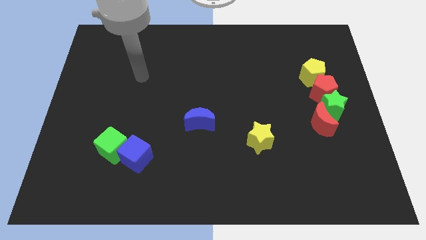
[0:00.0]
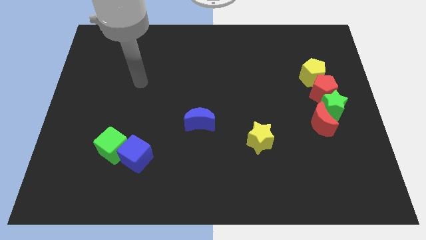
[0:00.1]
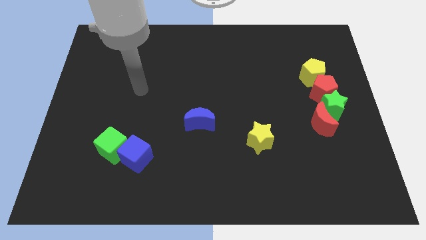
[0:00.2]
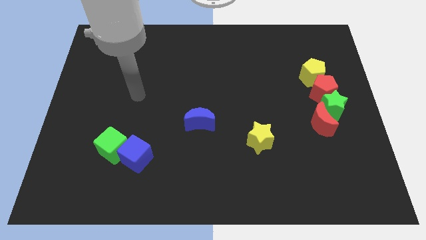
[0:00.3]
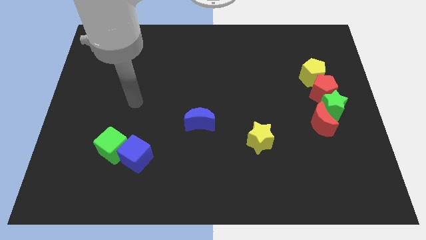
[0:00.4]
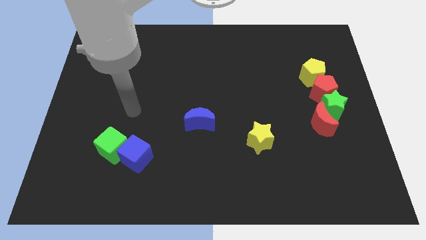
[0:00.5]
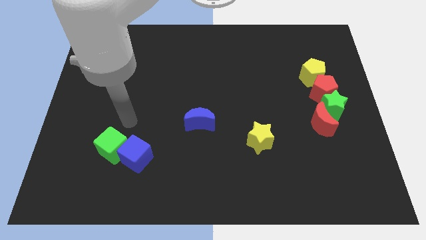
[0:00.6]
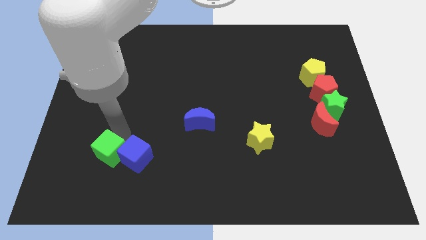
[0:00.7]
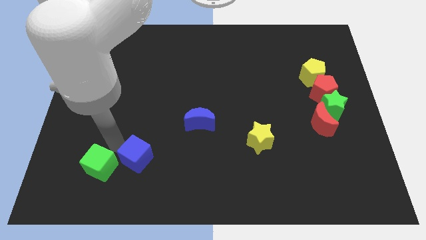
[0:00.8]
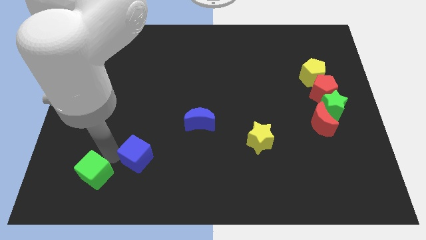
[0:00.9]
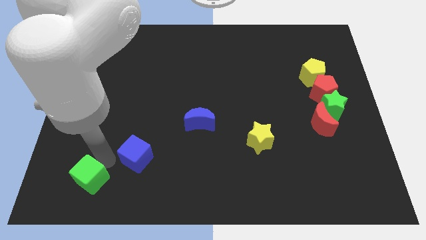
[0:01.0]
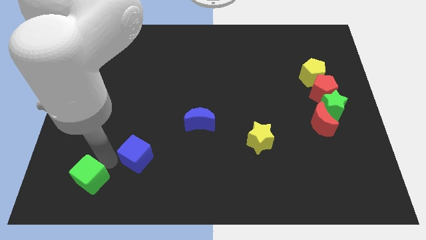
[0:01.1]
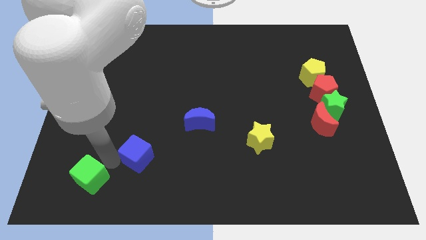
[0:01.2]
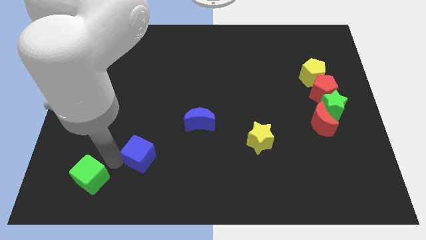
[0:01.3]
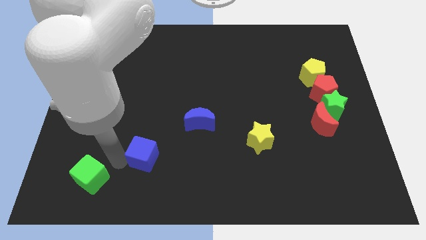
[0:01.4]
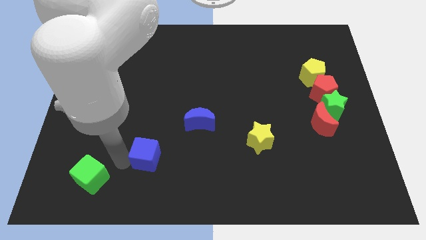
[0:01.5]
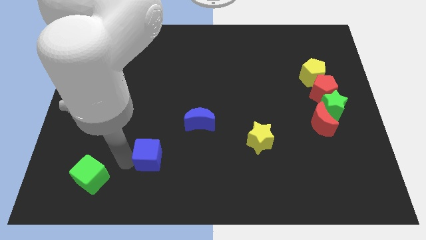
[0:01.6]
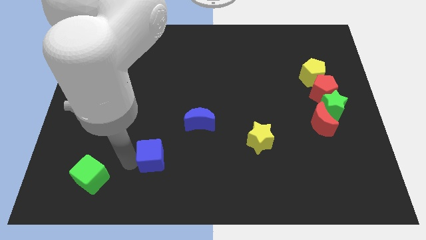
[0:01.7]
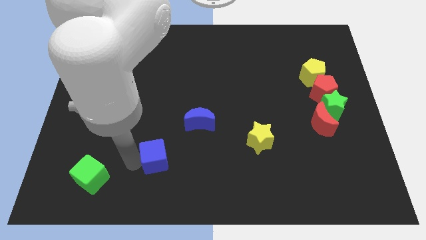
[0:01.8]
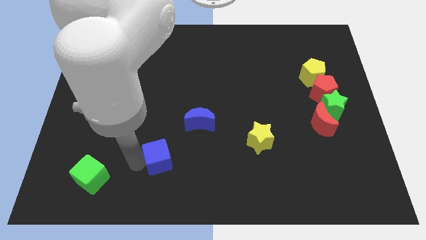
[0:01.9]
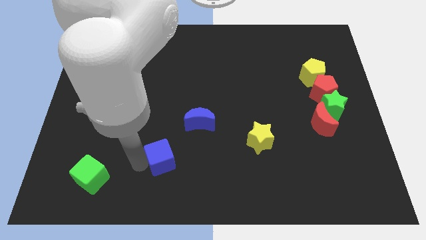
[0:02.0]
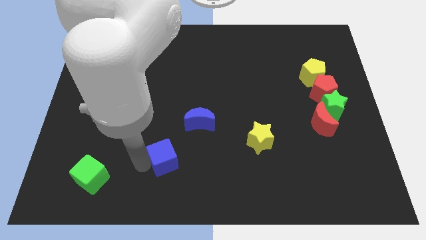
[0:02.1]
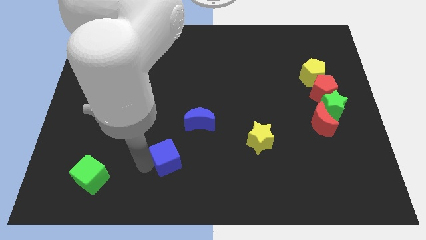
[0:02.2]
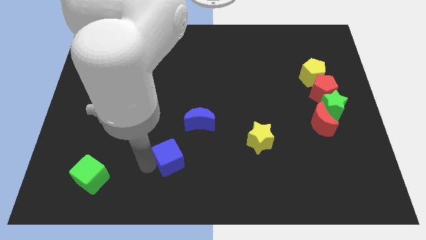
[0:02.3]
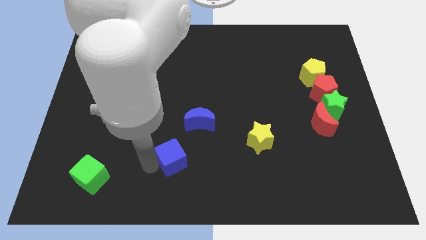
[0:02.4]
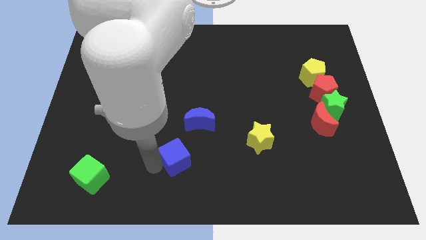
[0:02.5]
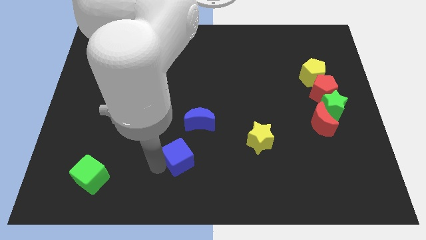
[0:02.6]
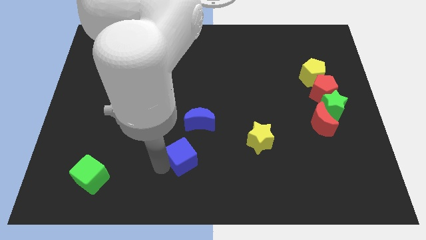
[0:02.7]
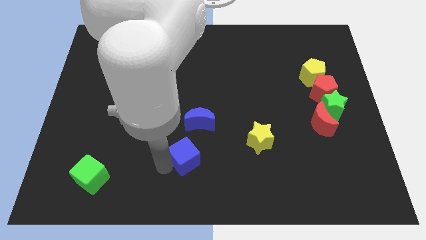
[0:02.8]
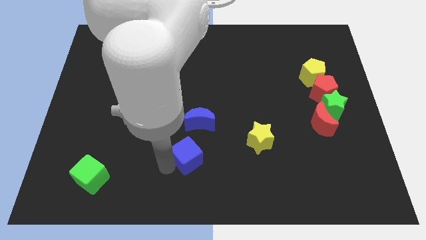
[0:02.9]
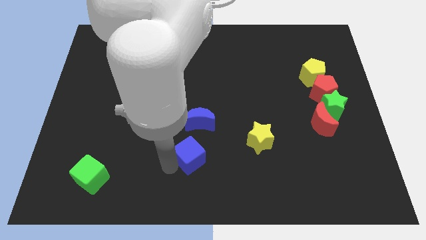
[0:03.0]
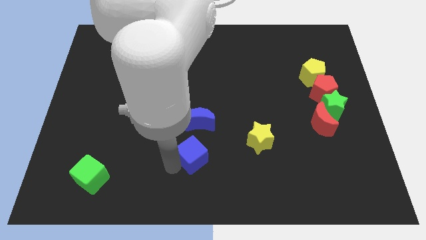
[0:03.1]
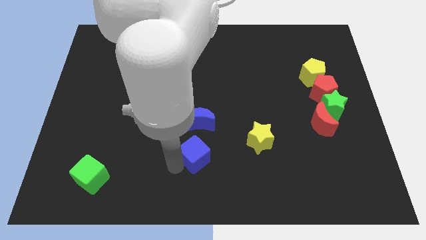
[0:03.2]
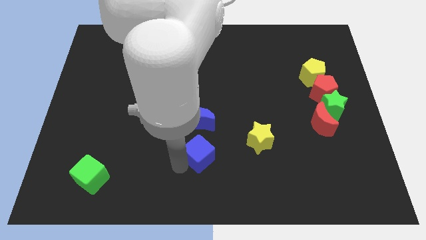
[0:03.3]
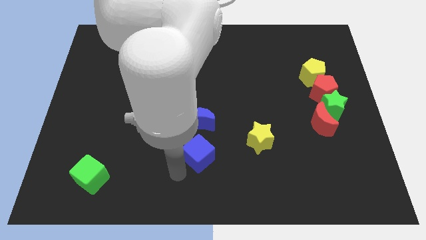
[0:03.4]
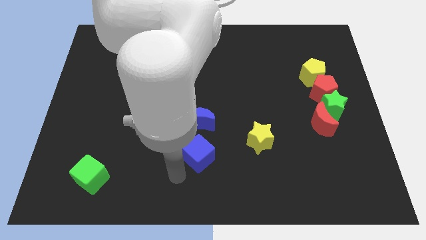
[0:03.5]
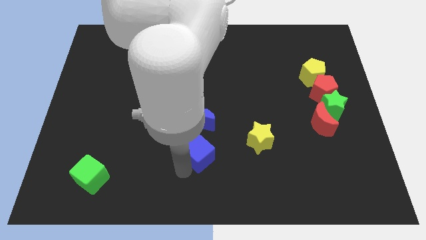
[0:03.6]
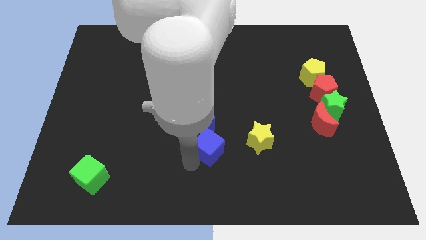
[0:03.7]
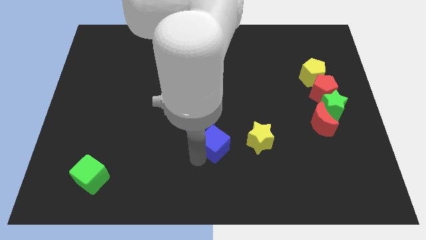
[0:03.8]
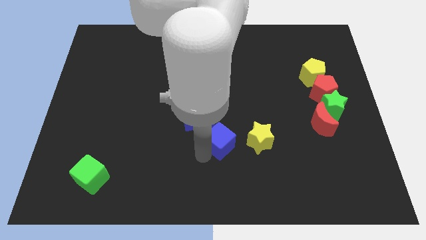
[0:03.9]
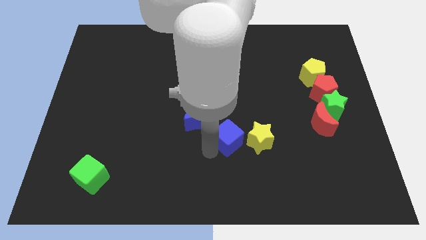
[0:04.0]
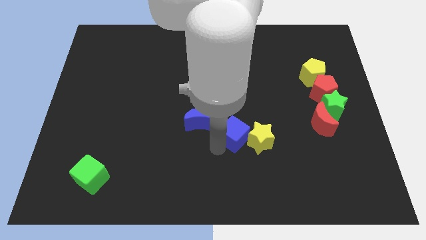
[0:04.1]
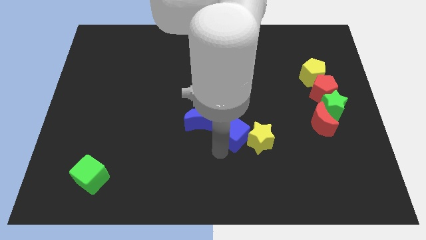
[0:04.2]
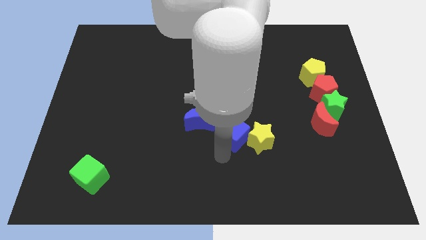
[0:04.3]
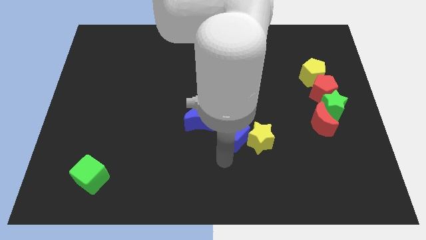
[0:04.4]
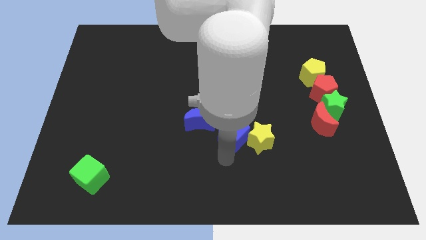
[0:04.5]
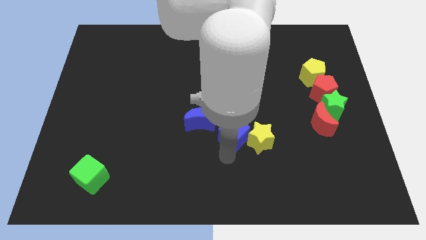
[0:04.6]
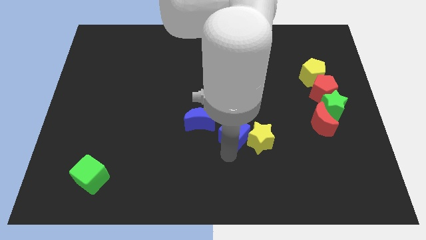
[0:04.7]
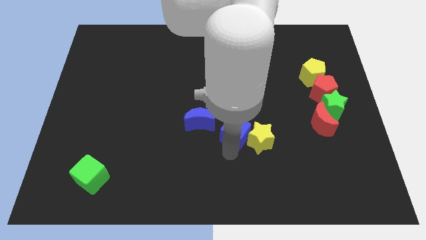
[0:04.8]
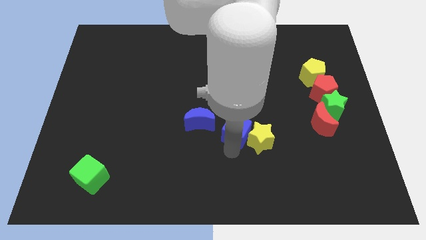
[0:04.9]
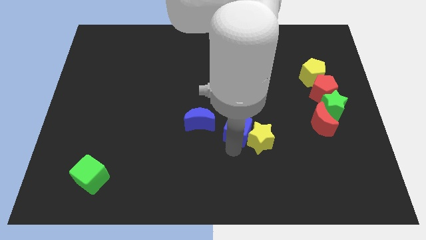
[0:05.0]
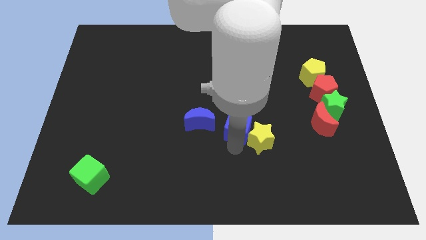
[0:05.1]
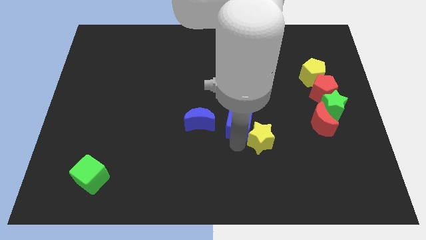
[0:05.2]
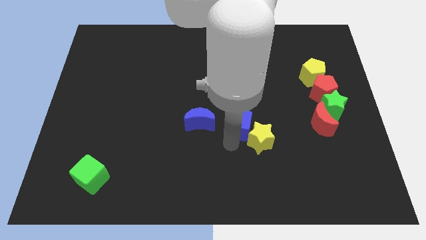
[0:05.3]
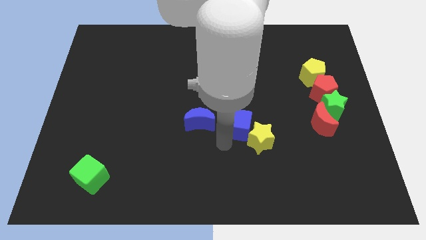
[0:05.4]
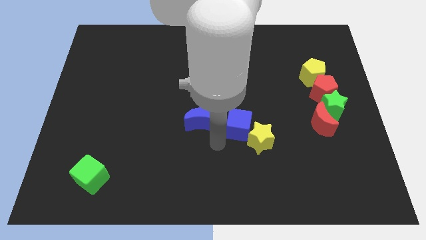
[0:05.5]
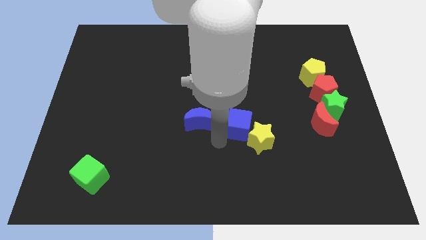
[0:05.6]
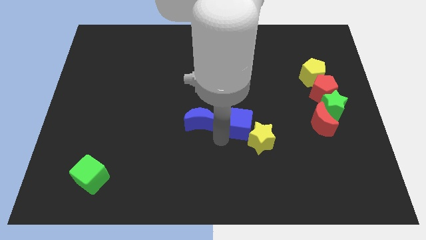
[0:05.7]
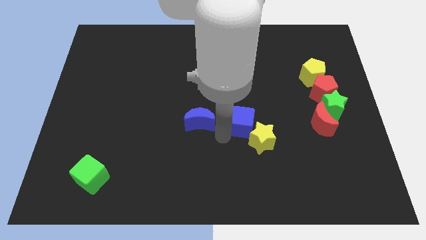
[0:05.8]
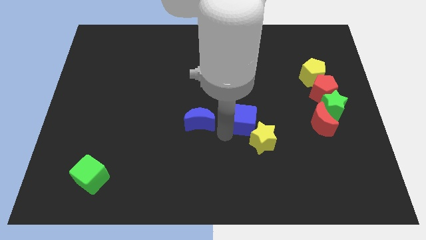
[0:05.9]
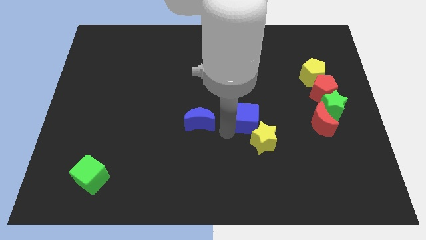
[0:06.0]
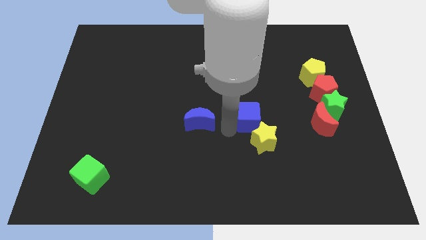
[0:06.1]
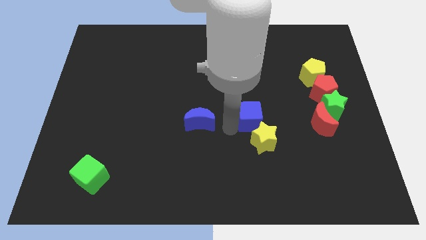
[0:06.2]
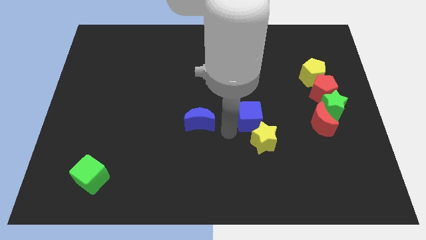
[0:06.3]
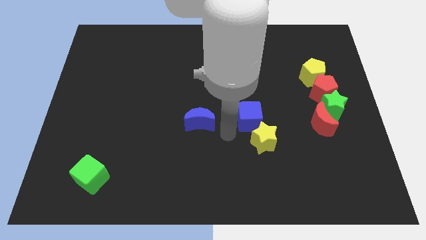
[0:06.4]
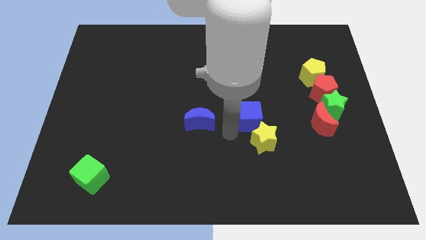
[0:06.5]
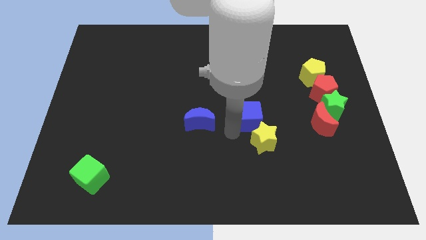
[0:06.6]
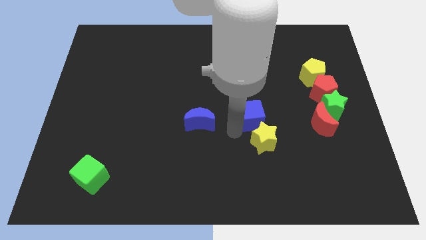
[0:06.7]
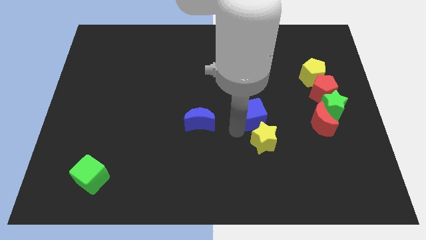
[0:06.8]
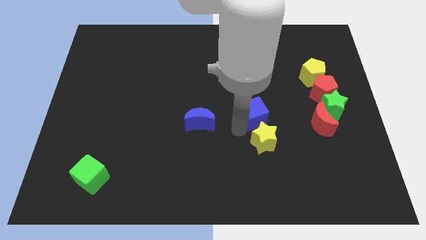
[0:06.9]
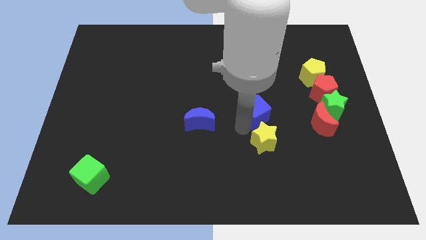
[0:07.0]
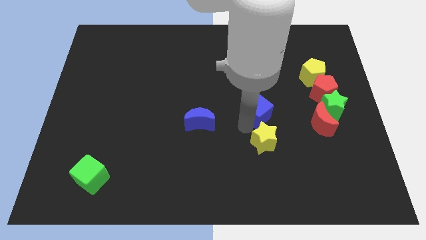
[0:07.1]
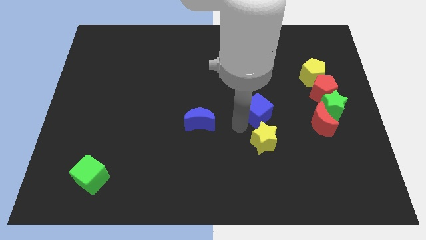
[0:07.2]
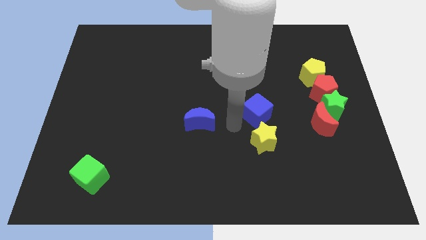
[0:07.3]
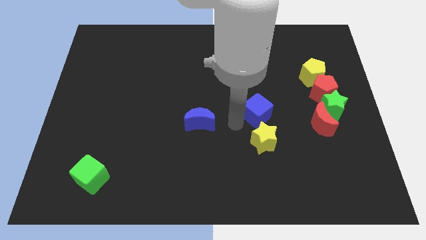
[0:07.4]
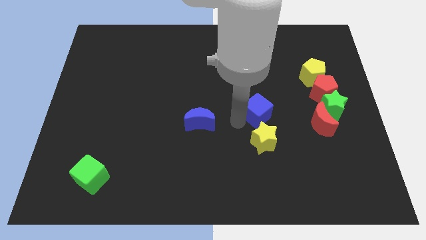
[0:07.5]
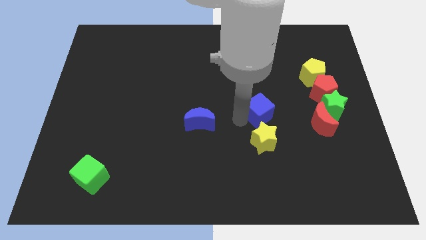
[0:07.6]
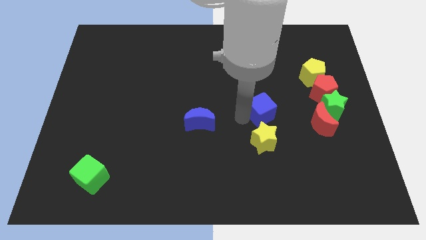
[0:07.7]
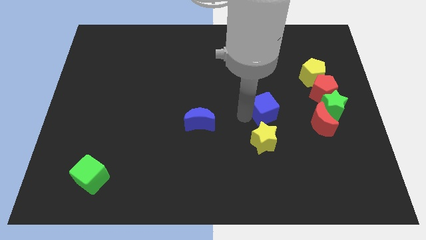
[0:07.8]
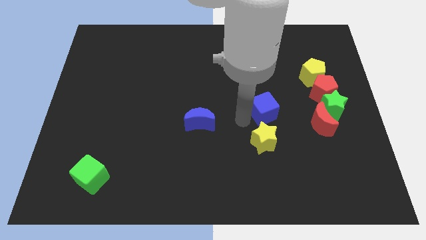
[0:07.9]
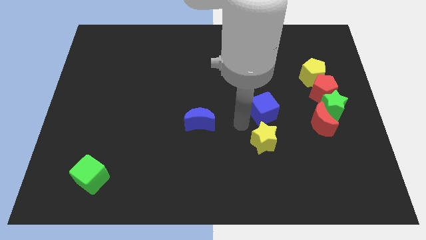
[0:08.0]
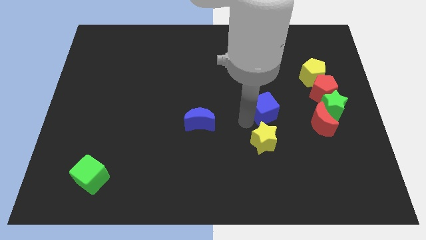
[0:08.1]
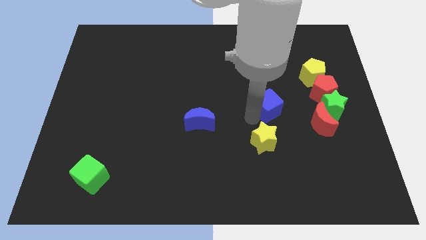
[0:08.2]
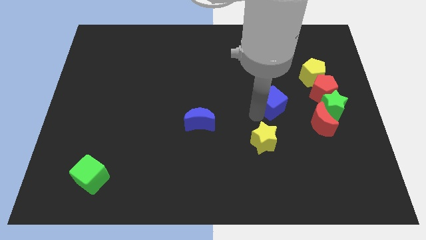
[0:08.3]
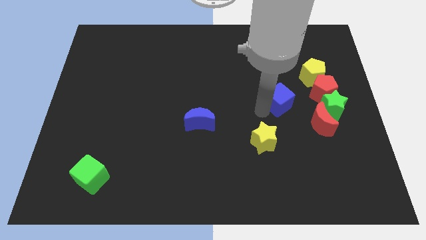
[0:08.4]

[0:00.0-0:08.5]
put the blue cube to the bottom left of the yellow pentagon
